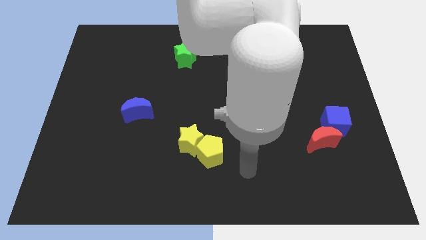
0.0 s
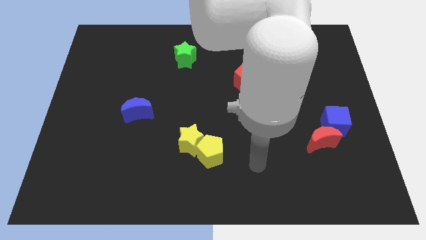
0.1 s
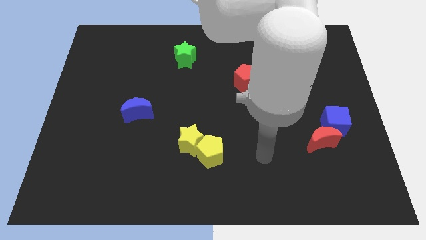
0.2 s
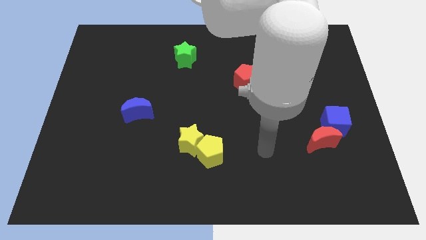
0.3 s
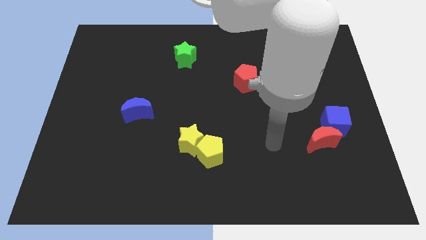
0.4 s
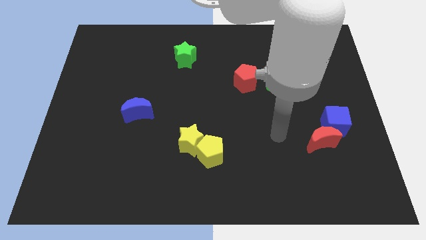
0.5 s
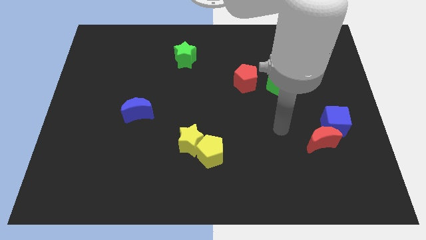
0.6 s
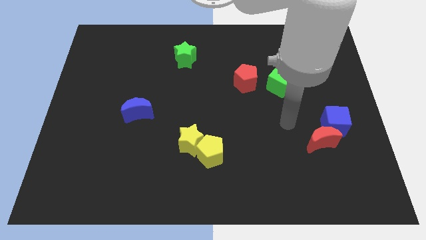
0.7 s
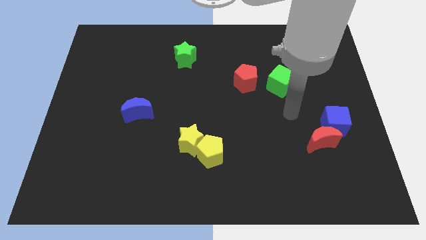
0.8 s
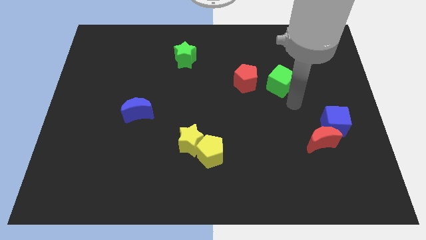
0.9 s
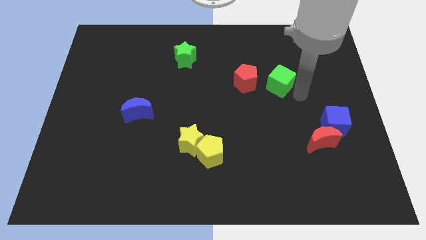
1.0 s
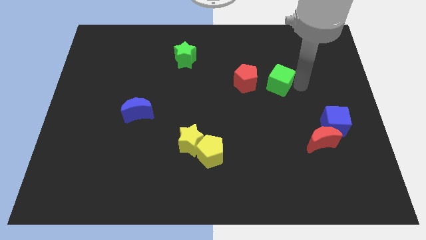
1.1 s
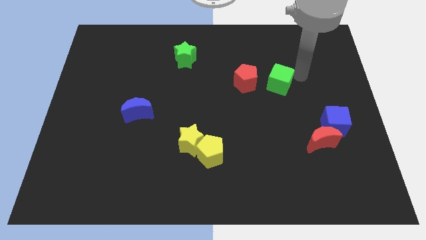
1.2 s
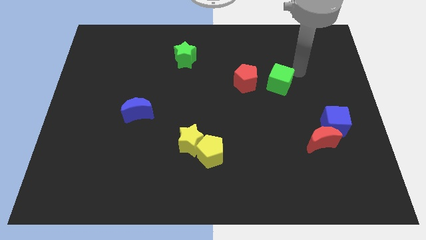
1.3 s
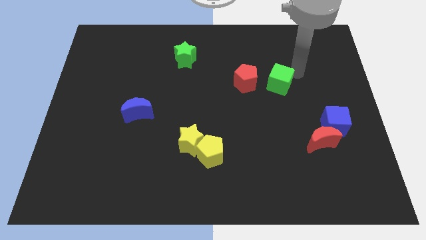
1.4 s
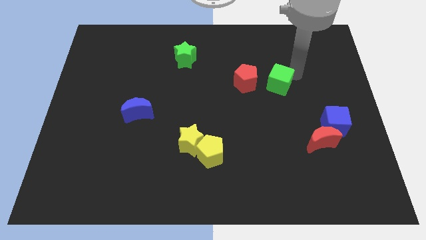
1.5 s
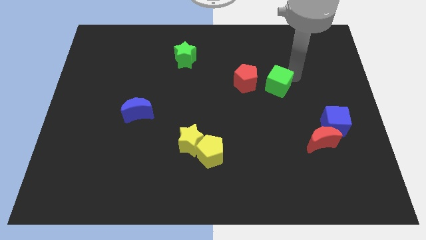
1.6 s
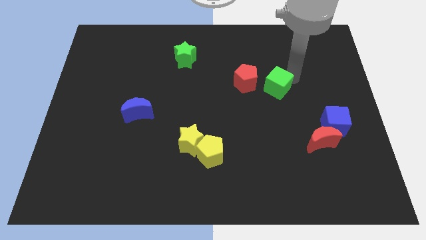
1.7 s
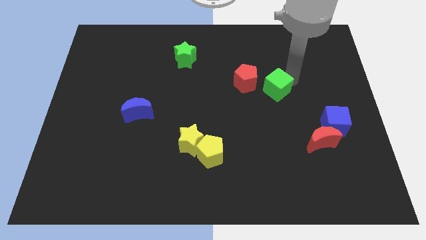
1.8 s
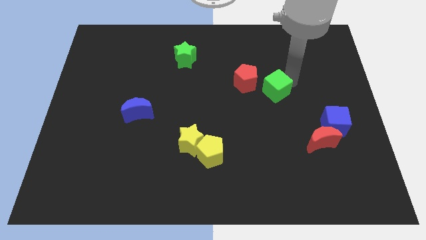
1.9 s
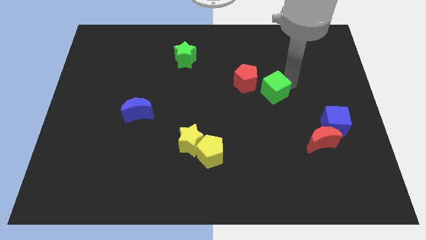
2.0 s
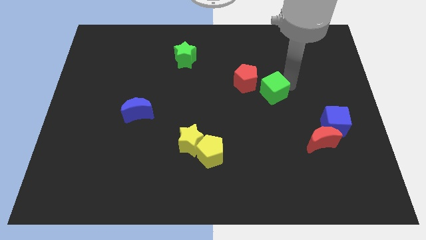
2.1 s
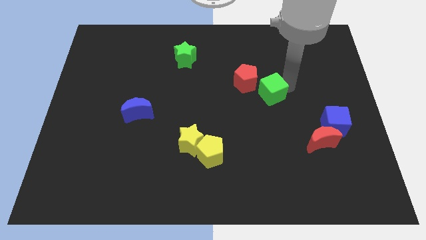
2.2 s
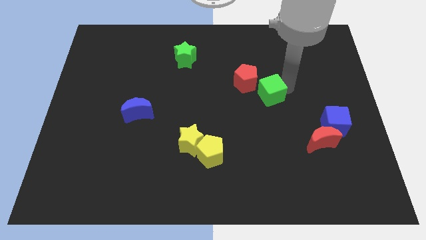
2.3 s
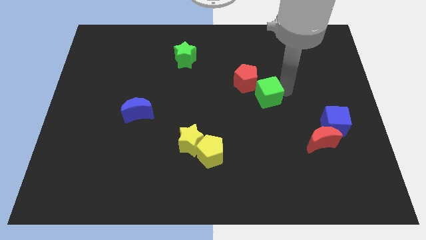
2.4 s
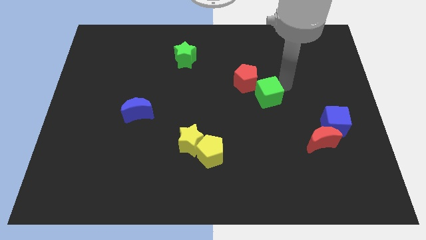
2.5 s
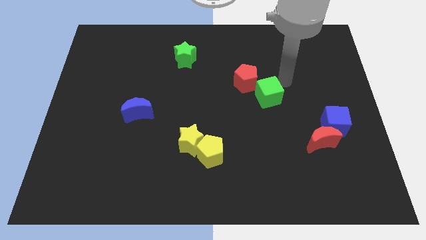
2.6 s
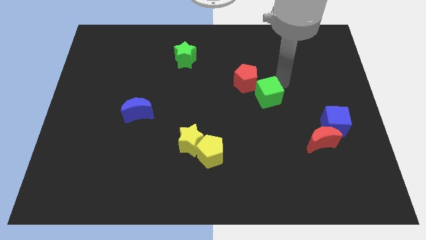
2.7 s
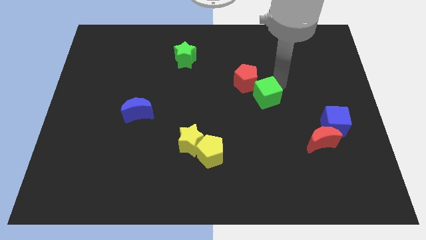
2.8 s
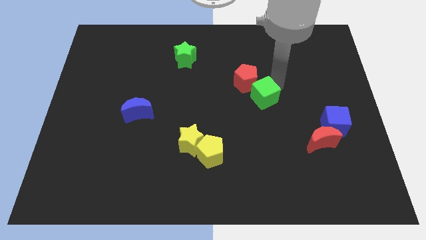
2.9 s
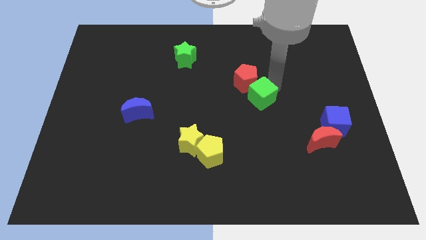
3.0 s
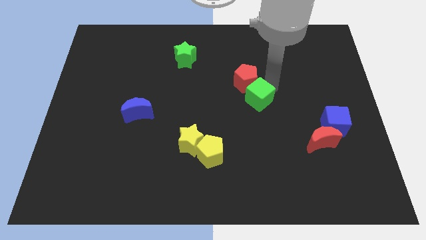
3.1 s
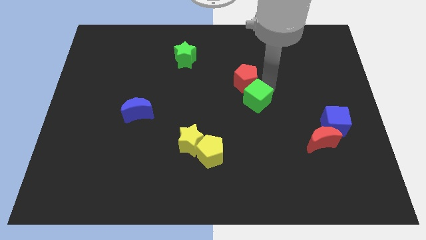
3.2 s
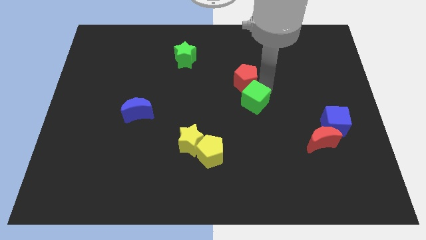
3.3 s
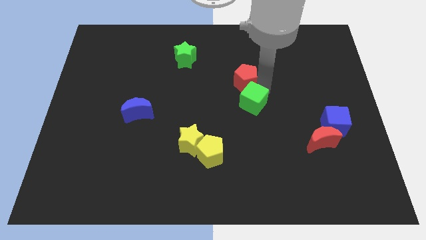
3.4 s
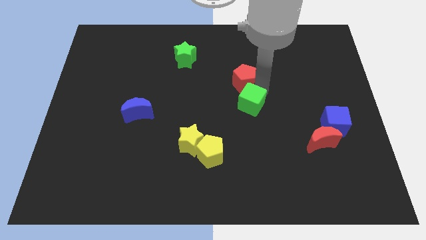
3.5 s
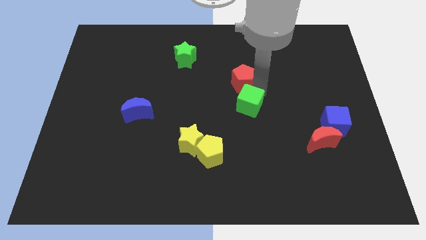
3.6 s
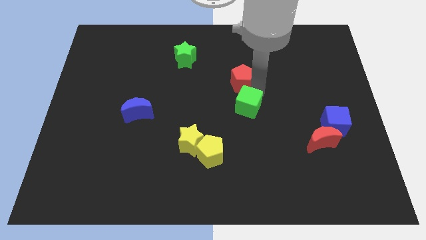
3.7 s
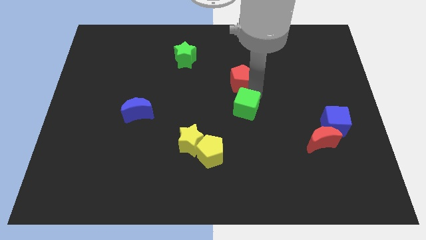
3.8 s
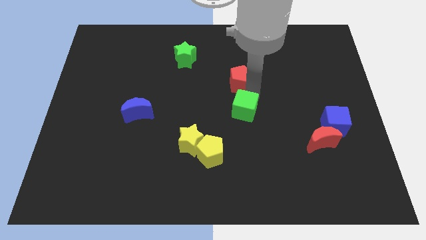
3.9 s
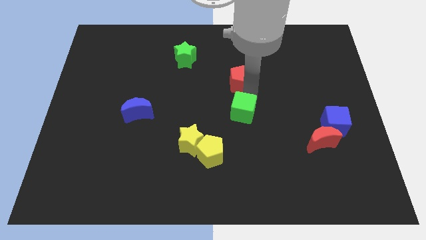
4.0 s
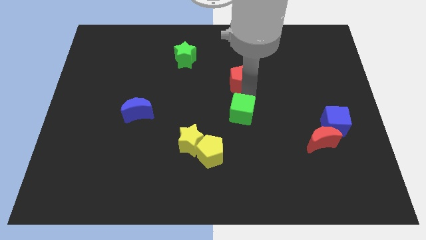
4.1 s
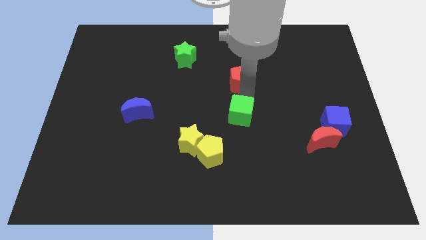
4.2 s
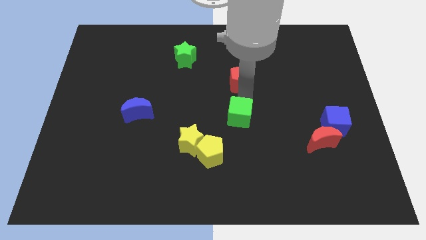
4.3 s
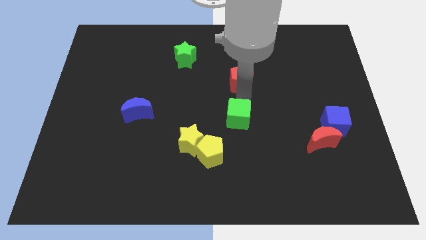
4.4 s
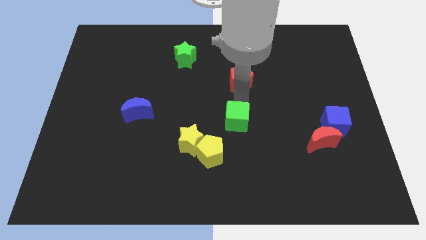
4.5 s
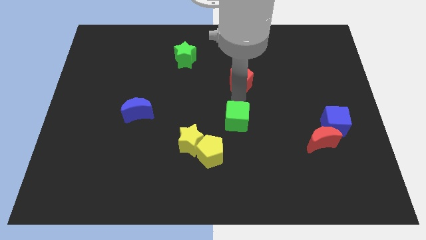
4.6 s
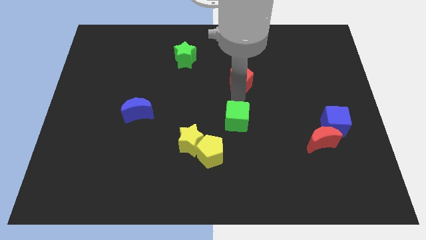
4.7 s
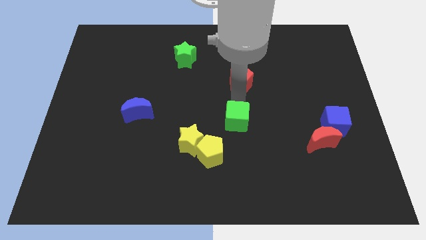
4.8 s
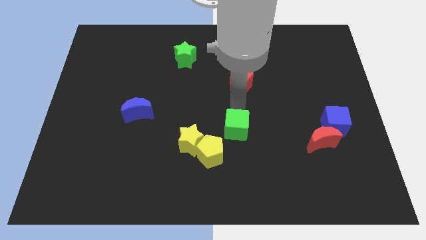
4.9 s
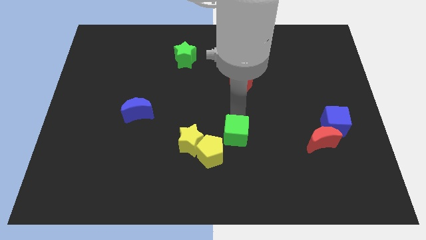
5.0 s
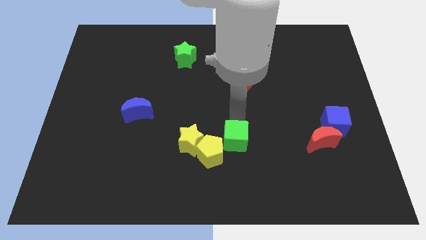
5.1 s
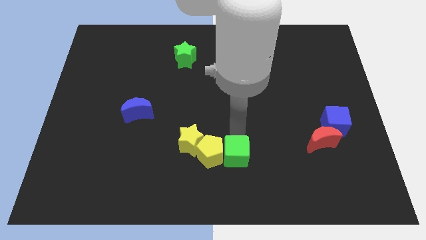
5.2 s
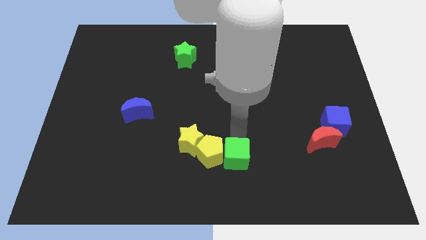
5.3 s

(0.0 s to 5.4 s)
push the green cube to the bottom side

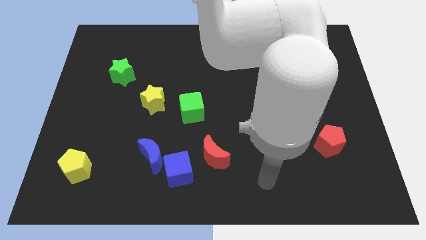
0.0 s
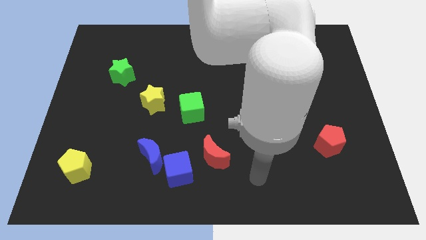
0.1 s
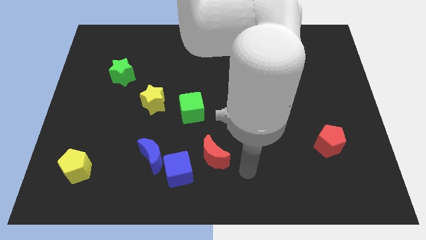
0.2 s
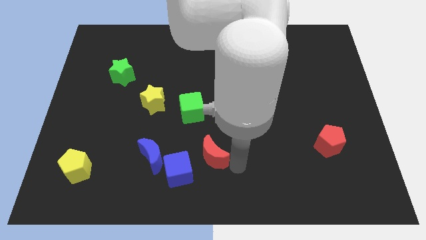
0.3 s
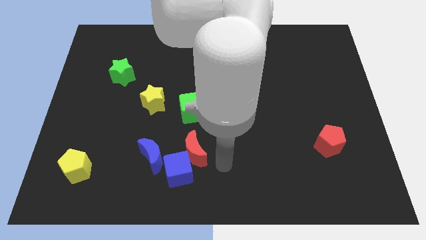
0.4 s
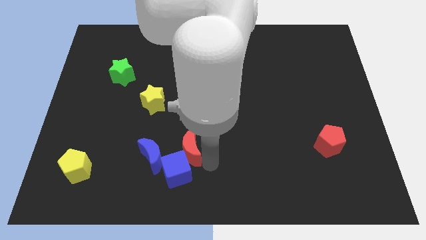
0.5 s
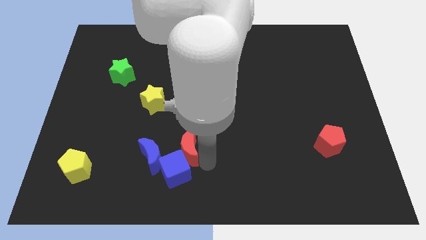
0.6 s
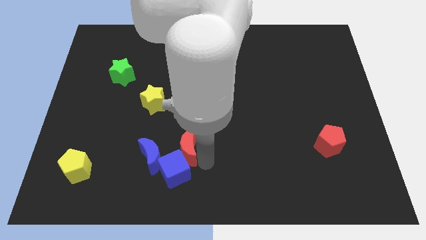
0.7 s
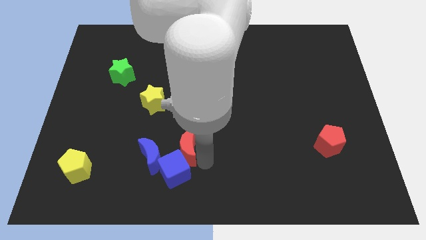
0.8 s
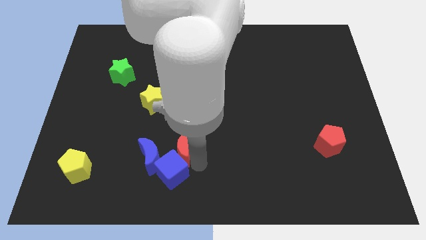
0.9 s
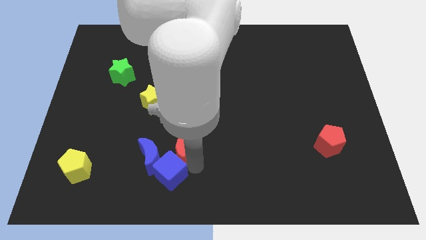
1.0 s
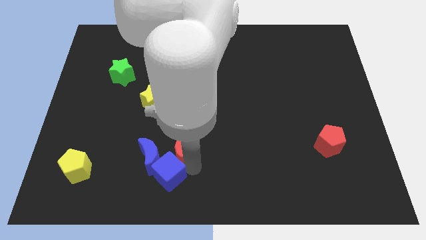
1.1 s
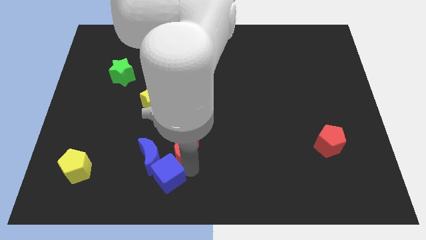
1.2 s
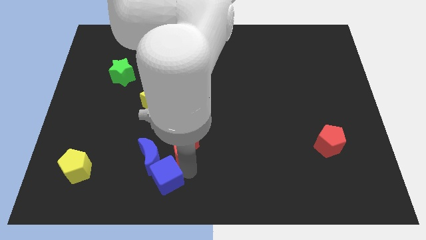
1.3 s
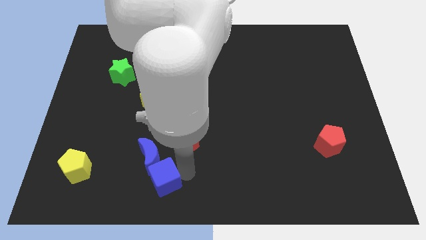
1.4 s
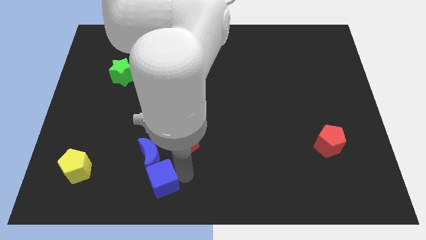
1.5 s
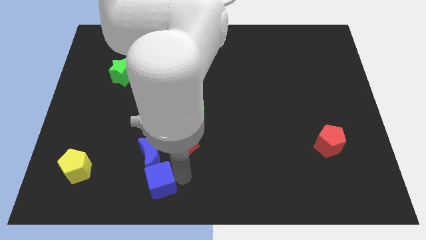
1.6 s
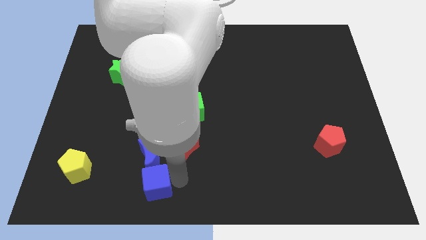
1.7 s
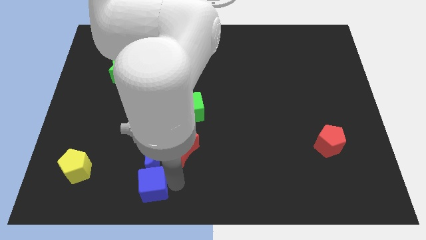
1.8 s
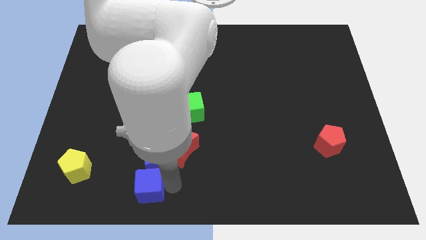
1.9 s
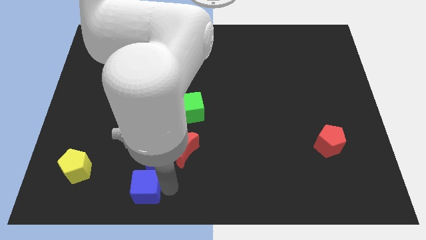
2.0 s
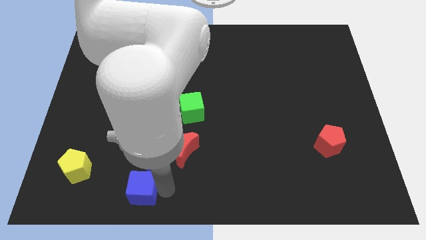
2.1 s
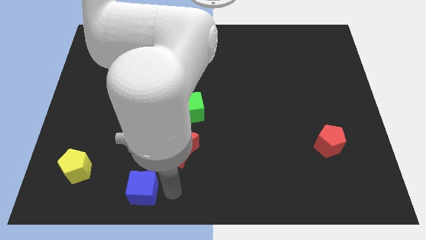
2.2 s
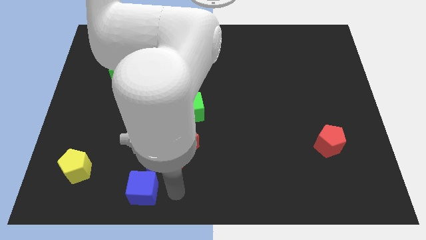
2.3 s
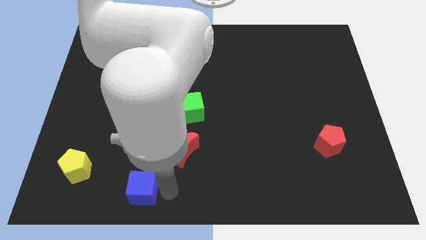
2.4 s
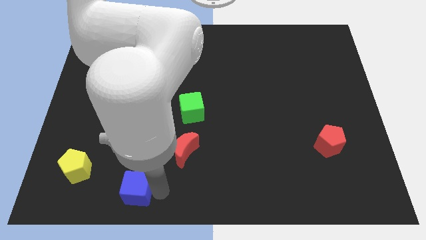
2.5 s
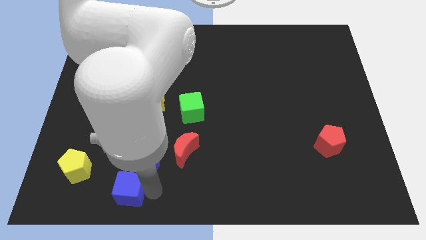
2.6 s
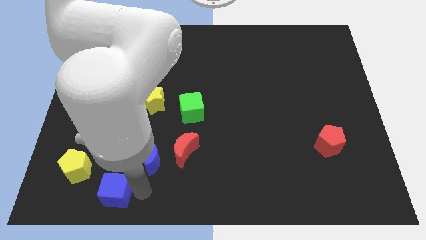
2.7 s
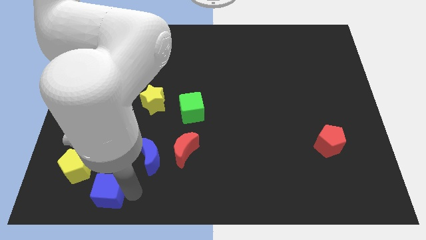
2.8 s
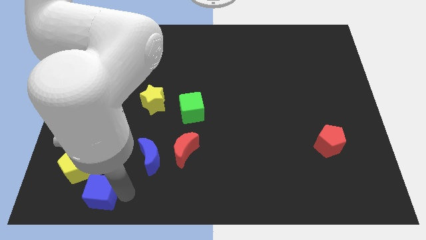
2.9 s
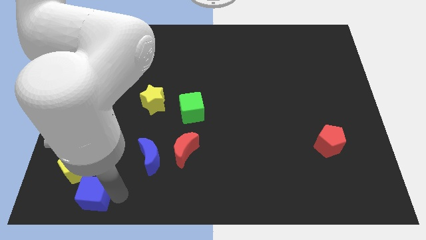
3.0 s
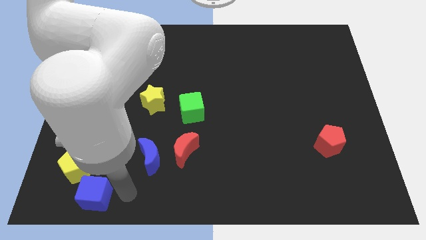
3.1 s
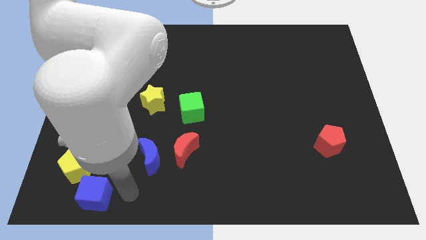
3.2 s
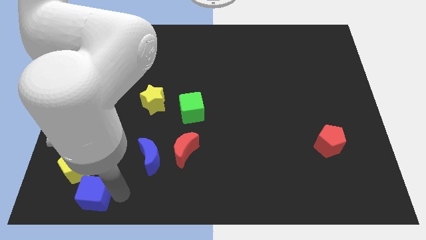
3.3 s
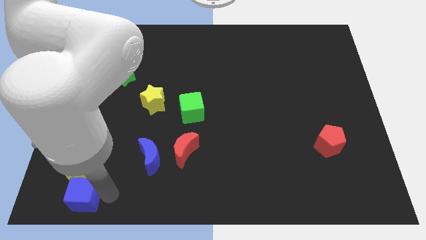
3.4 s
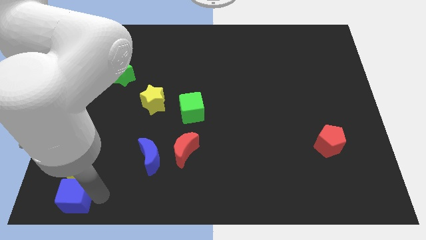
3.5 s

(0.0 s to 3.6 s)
slide the blue cube to the bottom left
